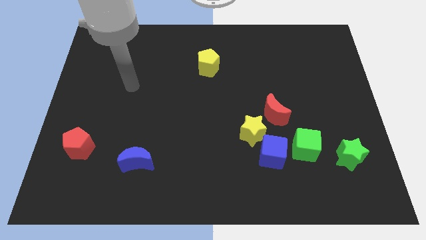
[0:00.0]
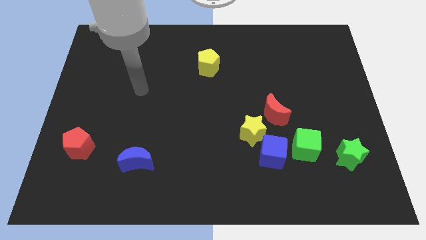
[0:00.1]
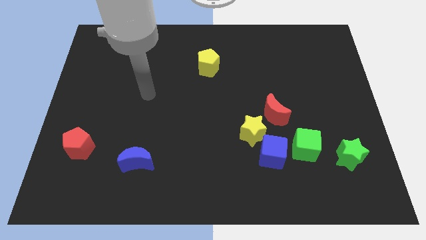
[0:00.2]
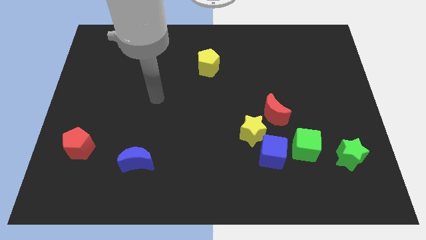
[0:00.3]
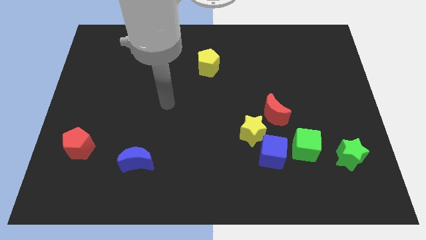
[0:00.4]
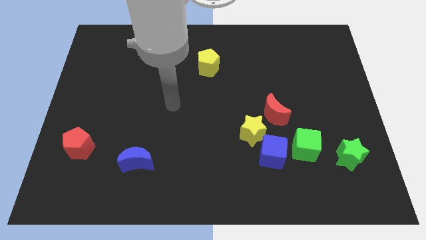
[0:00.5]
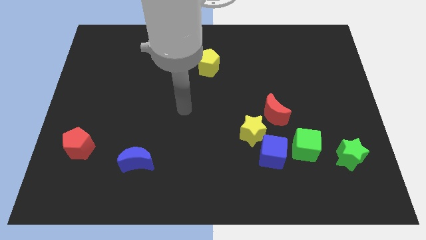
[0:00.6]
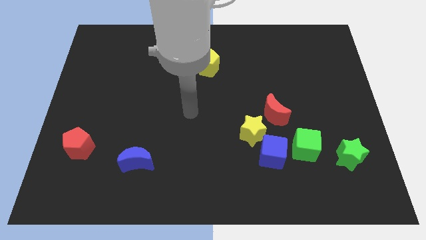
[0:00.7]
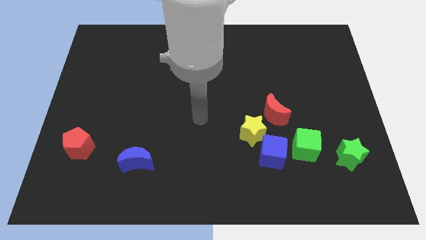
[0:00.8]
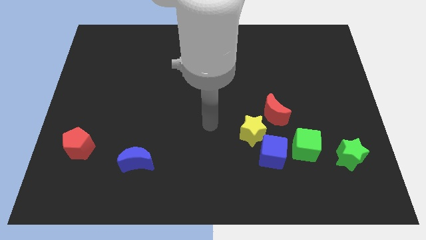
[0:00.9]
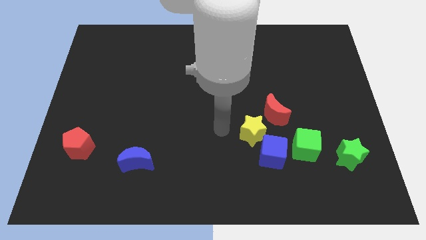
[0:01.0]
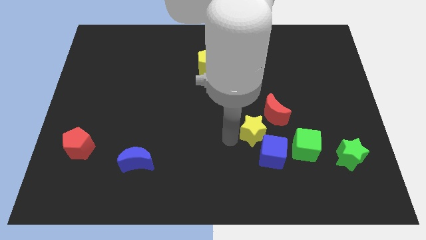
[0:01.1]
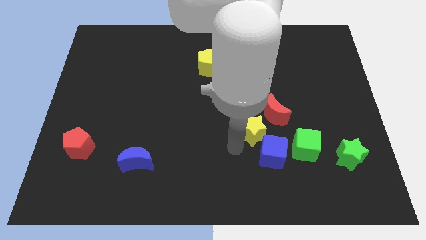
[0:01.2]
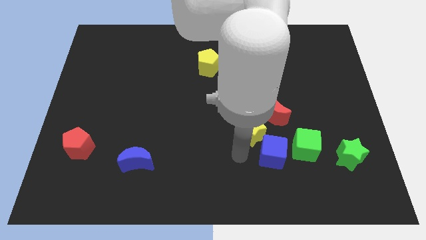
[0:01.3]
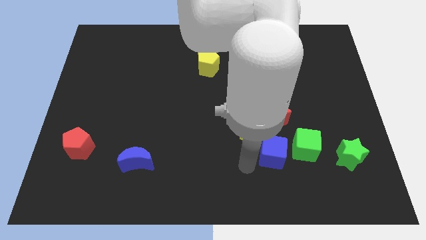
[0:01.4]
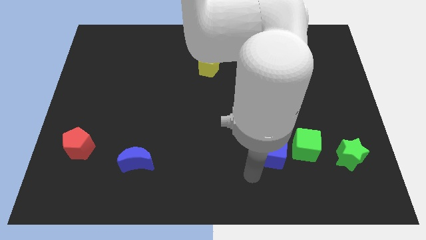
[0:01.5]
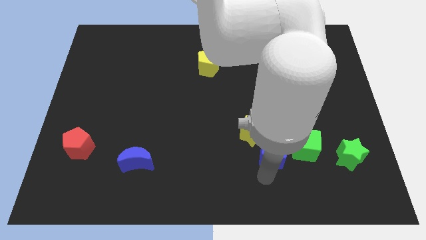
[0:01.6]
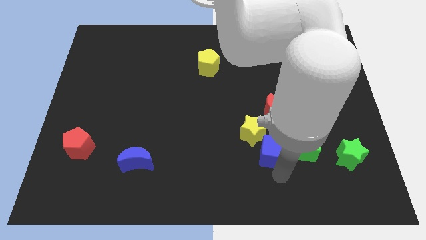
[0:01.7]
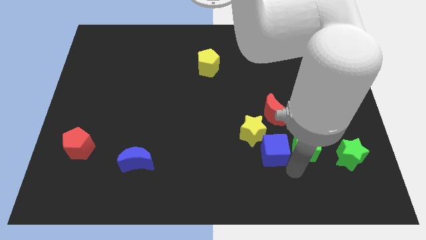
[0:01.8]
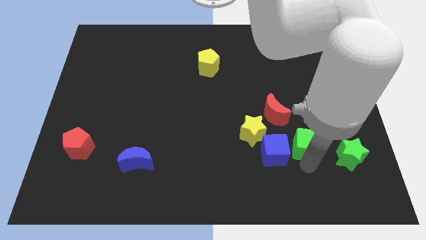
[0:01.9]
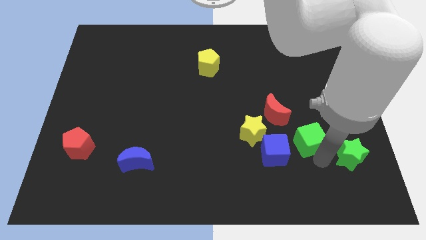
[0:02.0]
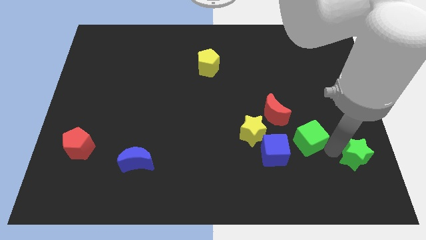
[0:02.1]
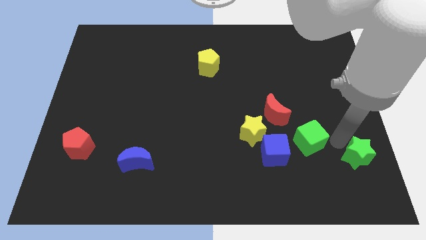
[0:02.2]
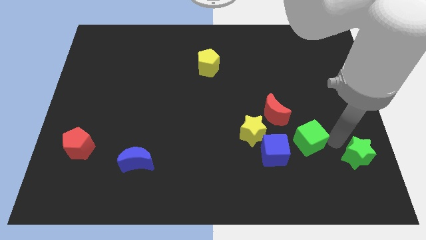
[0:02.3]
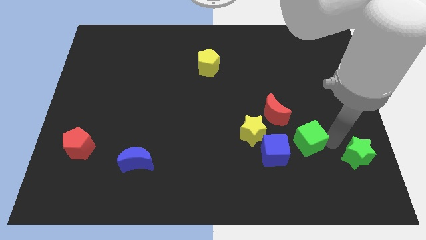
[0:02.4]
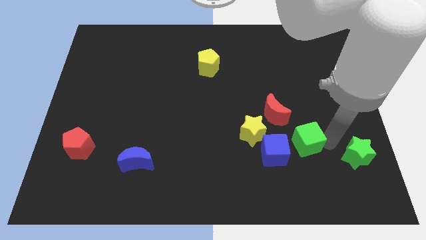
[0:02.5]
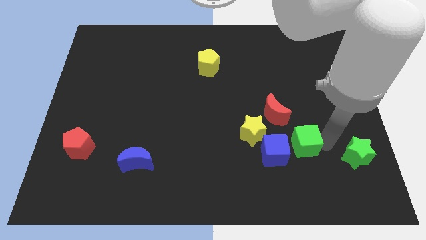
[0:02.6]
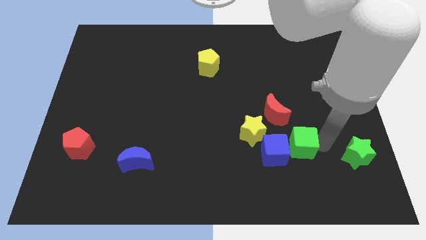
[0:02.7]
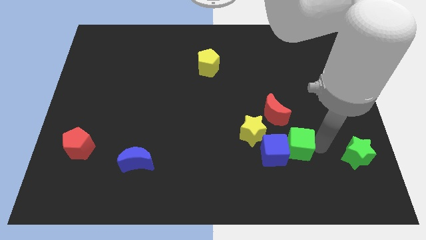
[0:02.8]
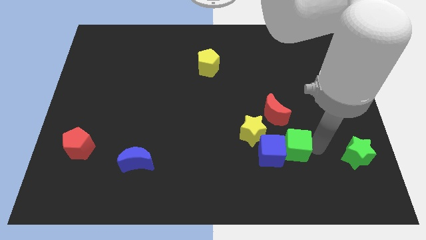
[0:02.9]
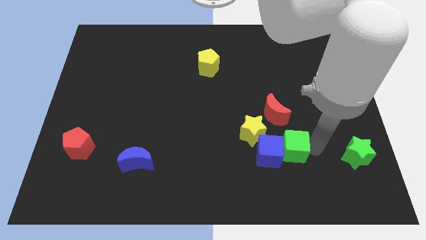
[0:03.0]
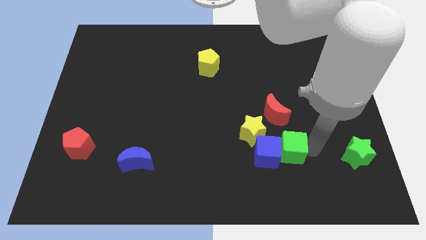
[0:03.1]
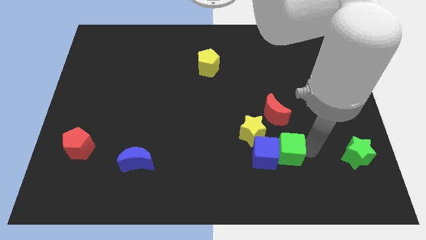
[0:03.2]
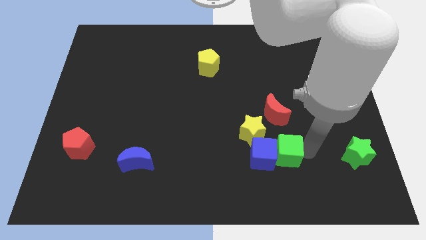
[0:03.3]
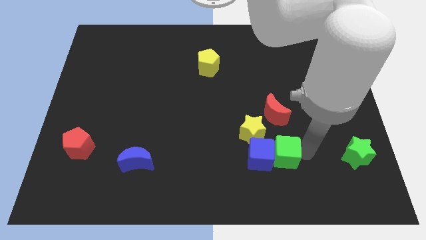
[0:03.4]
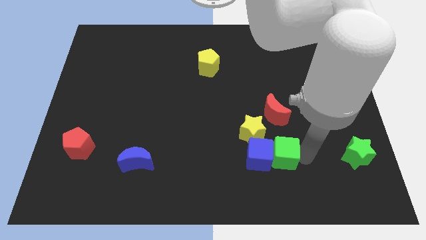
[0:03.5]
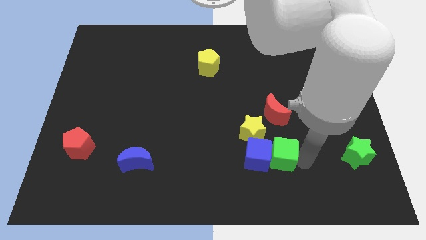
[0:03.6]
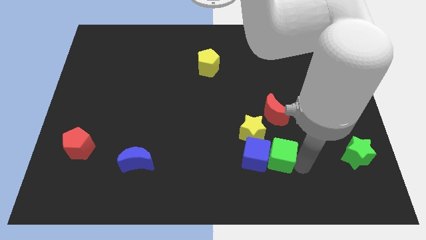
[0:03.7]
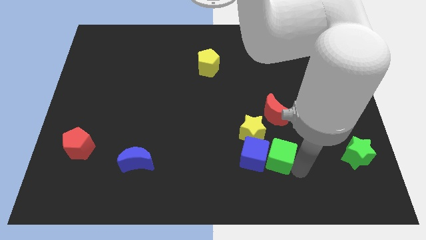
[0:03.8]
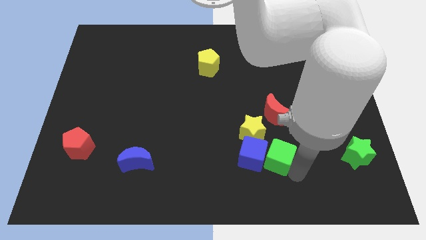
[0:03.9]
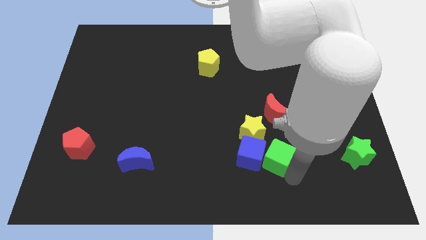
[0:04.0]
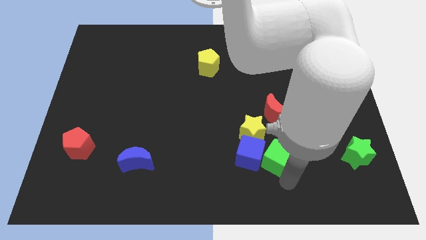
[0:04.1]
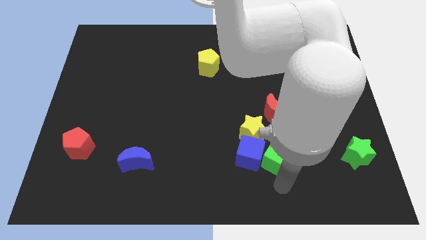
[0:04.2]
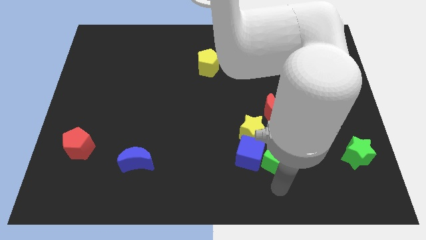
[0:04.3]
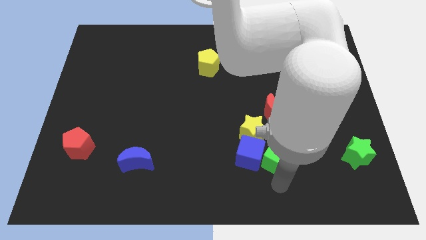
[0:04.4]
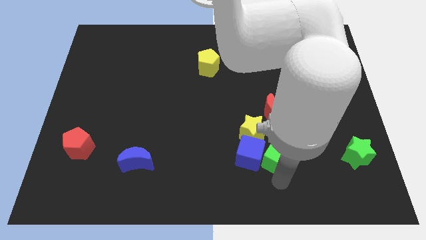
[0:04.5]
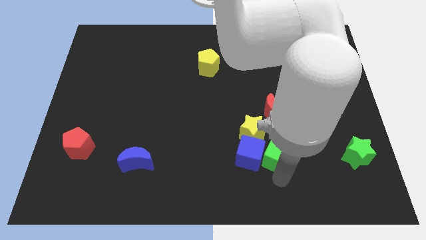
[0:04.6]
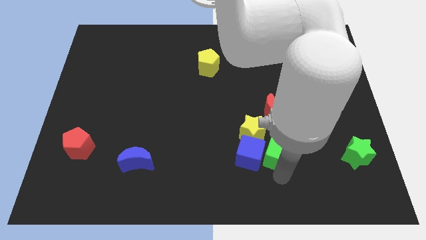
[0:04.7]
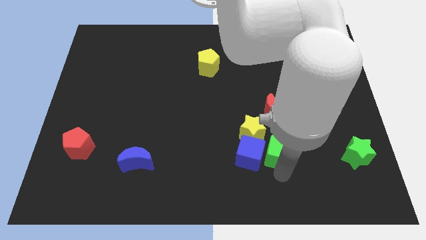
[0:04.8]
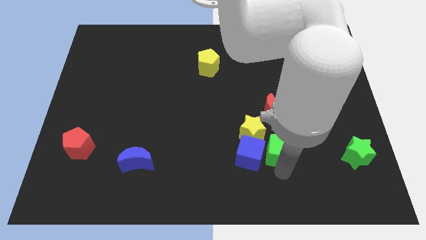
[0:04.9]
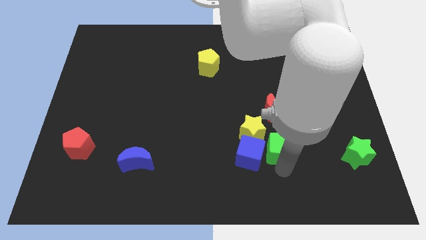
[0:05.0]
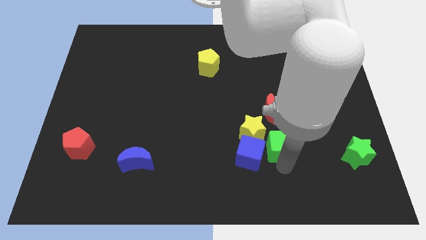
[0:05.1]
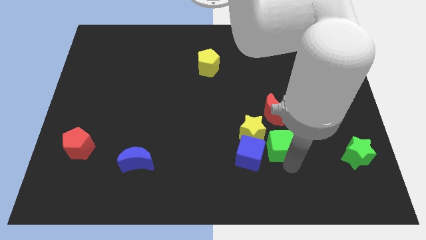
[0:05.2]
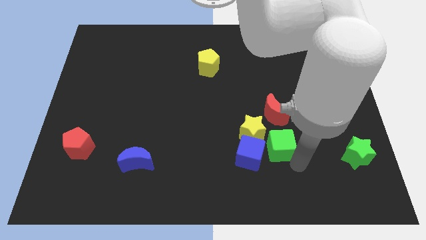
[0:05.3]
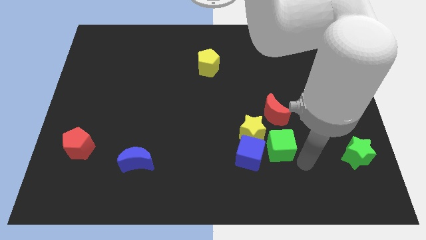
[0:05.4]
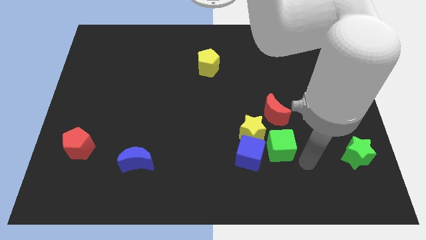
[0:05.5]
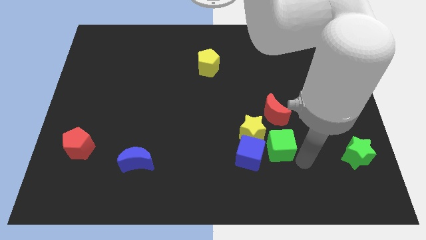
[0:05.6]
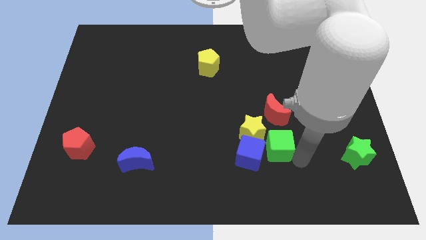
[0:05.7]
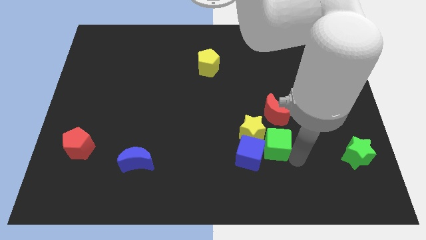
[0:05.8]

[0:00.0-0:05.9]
move the green cube close to the yellow star
